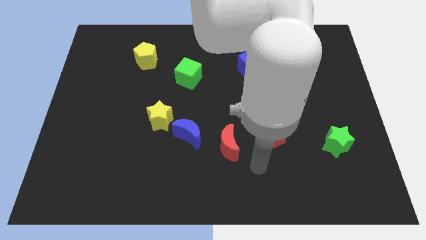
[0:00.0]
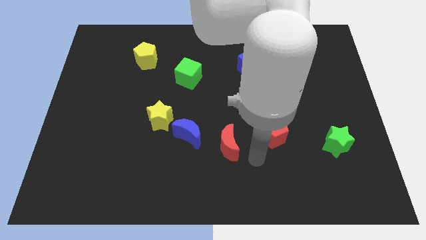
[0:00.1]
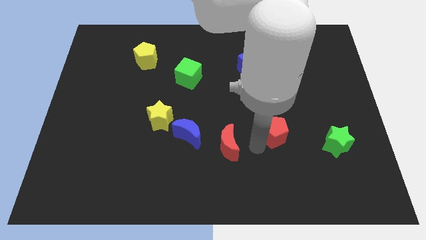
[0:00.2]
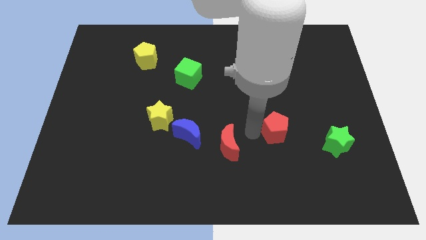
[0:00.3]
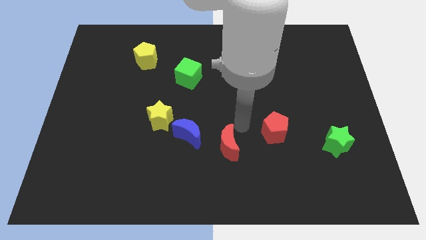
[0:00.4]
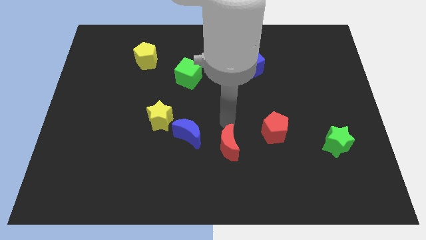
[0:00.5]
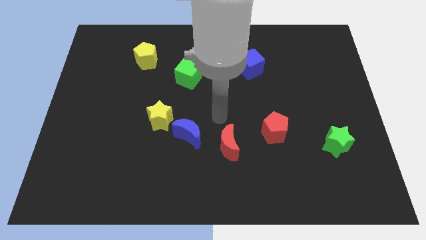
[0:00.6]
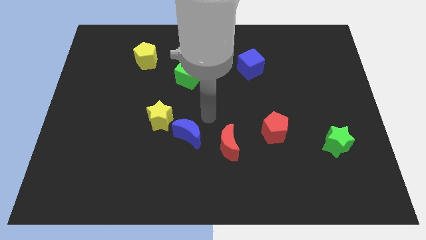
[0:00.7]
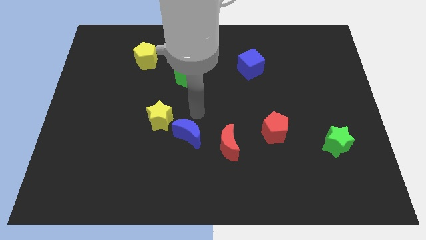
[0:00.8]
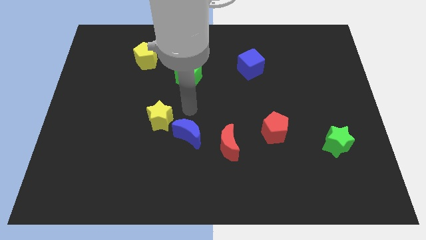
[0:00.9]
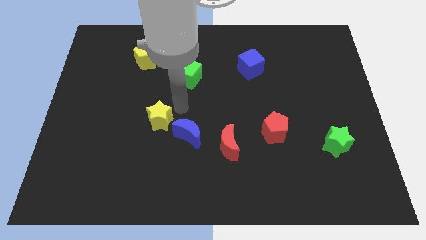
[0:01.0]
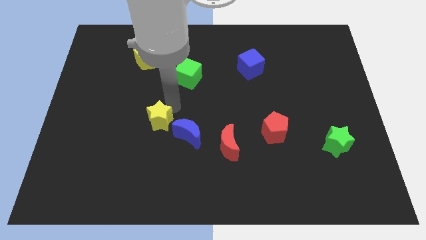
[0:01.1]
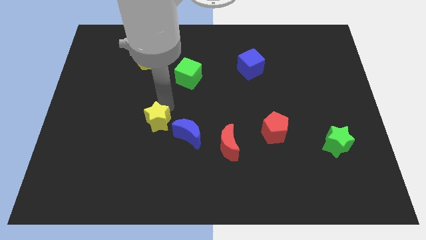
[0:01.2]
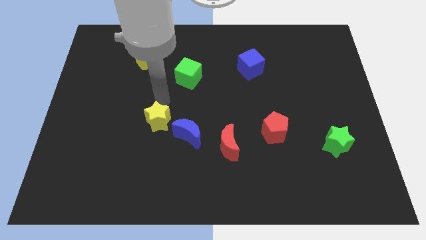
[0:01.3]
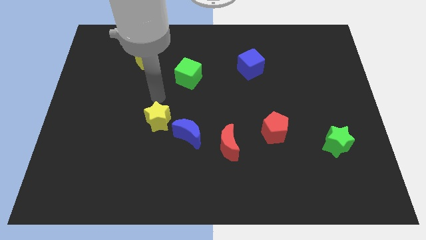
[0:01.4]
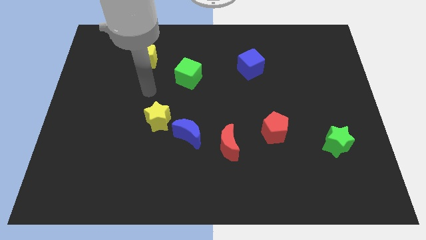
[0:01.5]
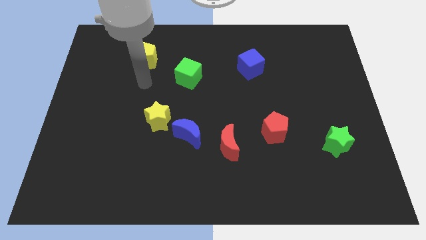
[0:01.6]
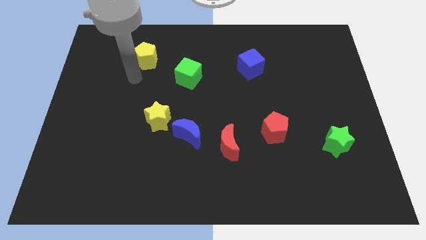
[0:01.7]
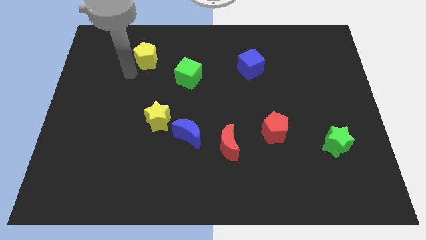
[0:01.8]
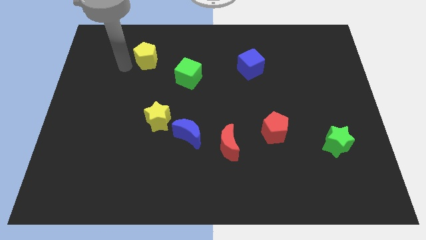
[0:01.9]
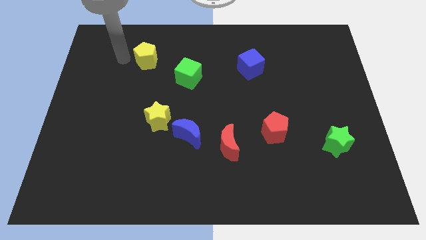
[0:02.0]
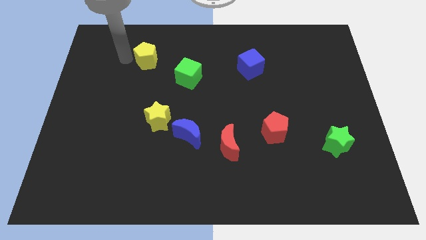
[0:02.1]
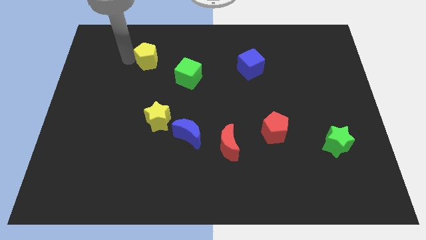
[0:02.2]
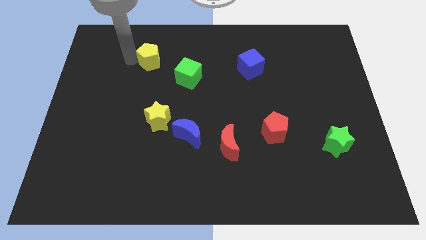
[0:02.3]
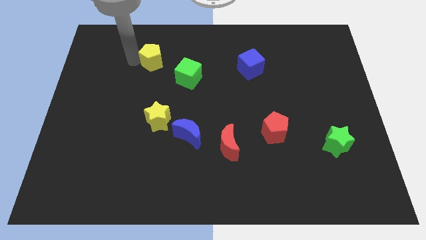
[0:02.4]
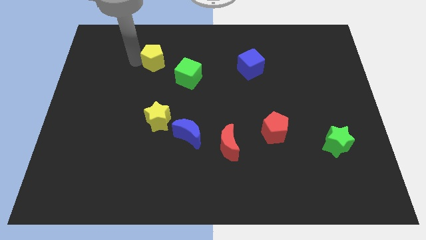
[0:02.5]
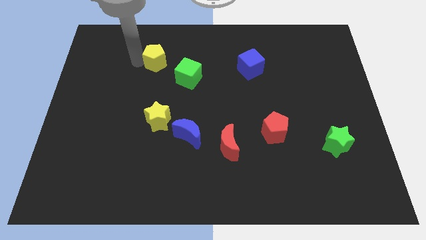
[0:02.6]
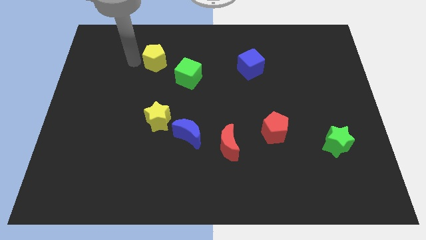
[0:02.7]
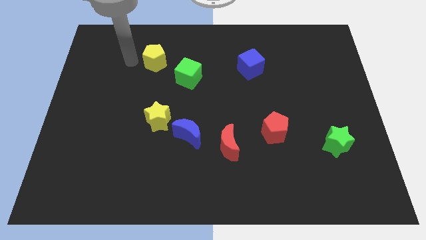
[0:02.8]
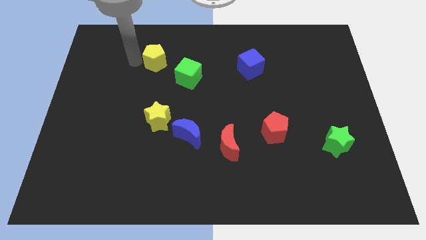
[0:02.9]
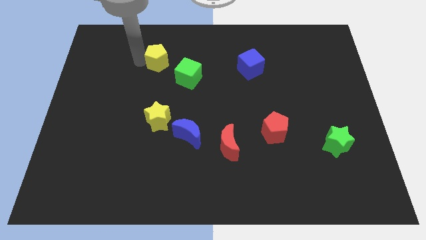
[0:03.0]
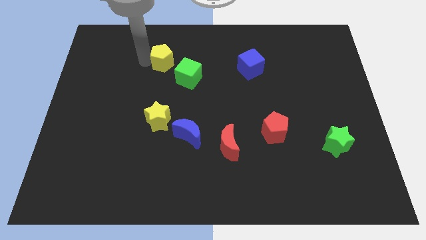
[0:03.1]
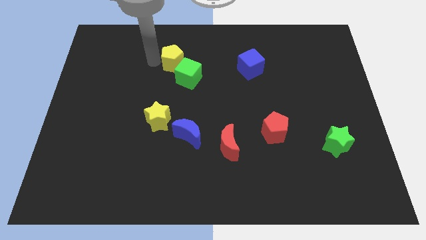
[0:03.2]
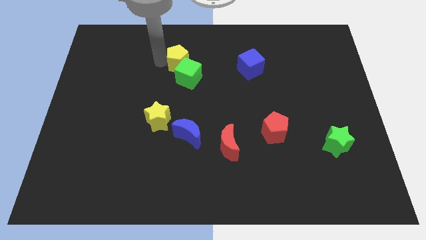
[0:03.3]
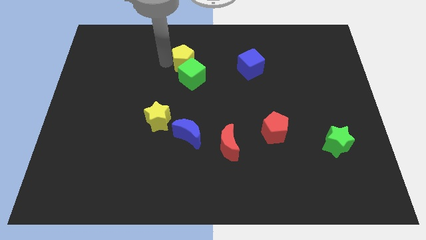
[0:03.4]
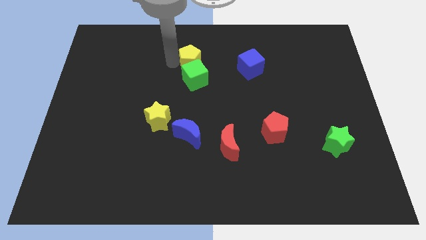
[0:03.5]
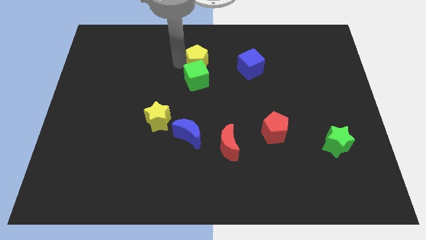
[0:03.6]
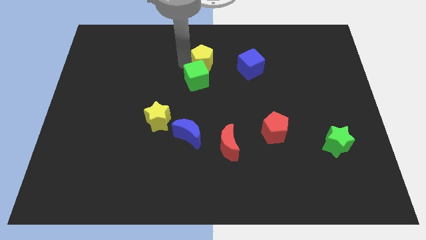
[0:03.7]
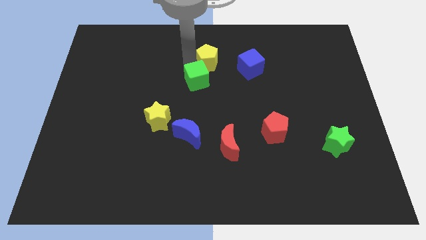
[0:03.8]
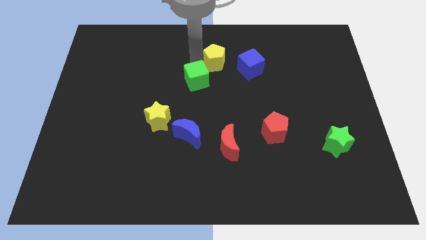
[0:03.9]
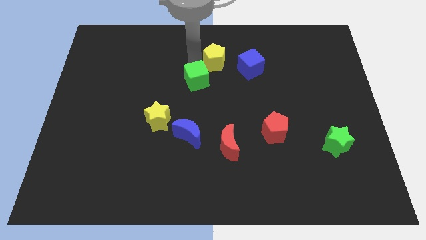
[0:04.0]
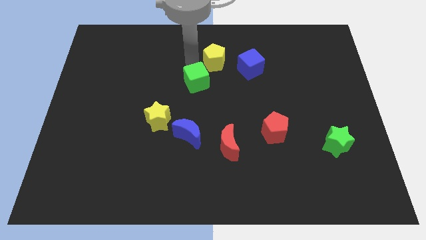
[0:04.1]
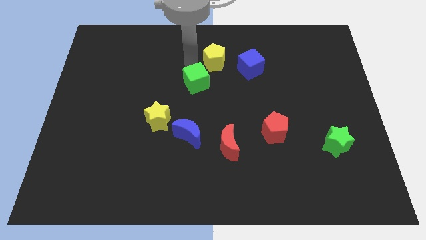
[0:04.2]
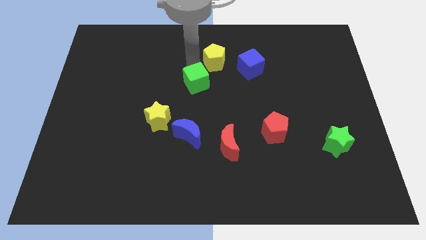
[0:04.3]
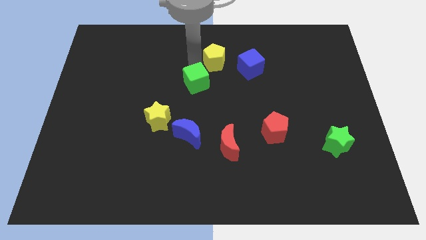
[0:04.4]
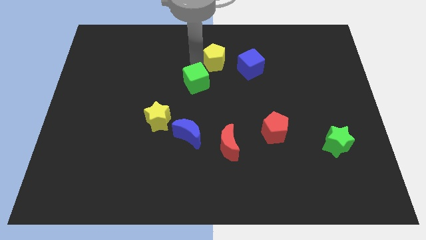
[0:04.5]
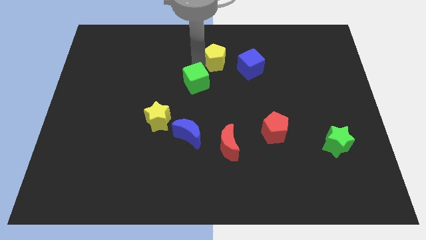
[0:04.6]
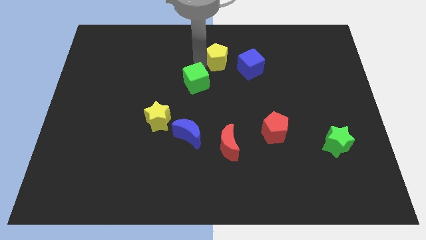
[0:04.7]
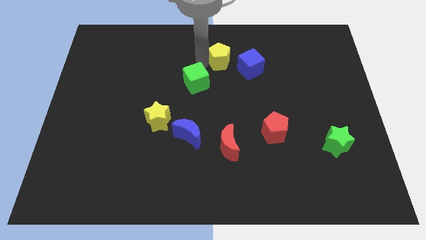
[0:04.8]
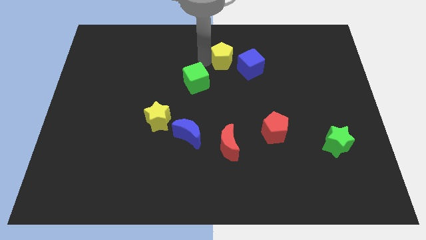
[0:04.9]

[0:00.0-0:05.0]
push the yellow pentagon right

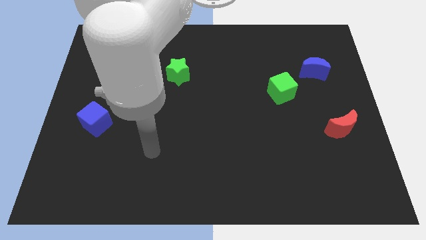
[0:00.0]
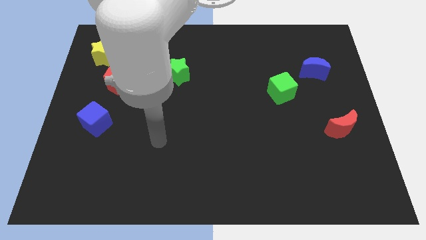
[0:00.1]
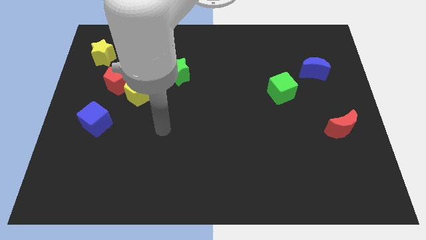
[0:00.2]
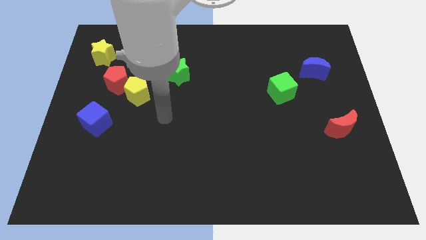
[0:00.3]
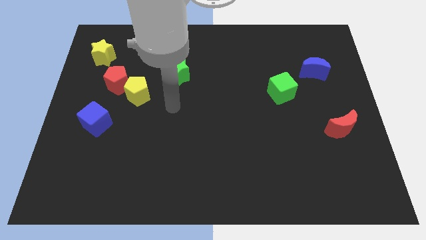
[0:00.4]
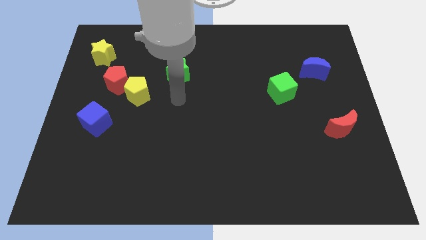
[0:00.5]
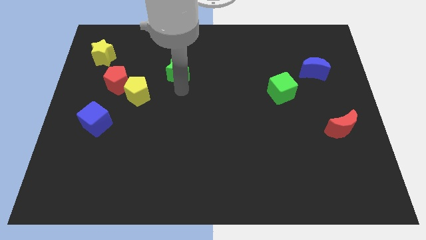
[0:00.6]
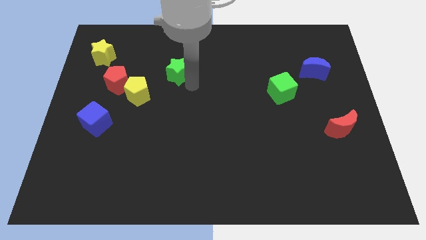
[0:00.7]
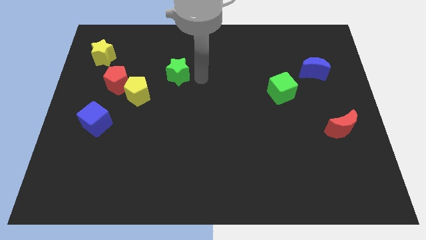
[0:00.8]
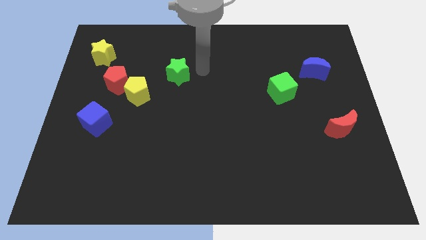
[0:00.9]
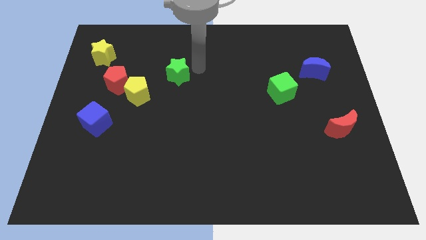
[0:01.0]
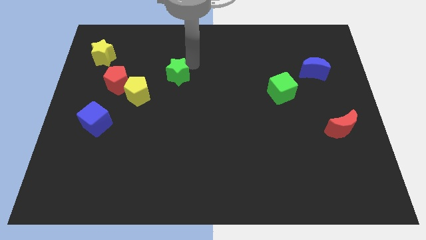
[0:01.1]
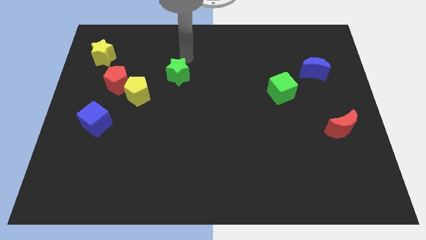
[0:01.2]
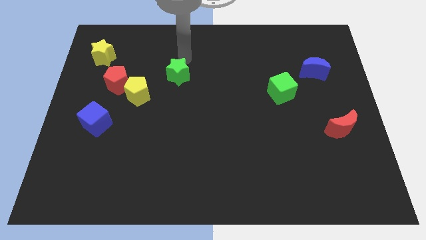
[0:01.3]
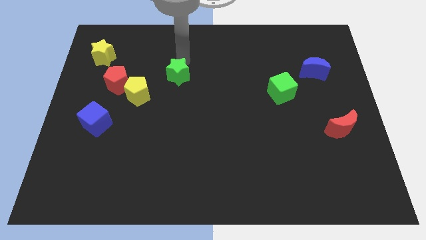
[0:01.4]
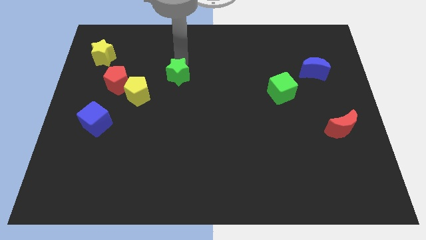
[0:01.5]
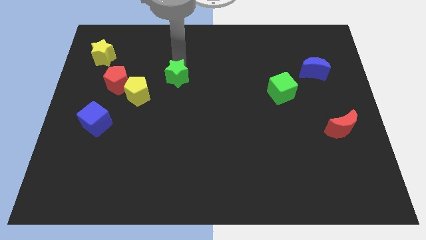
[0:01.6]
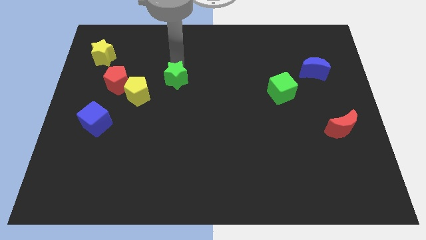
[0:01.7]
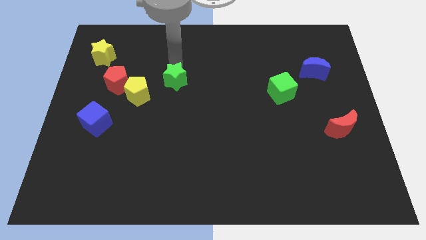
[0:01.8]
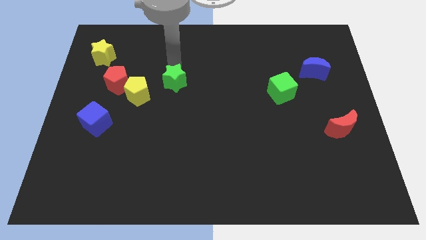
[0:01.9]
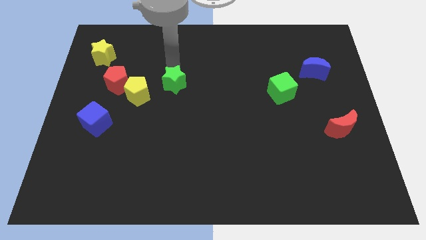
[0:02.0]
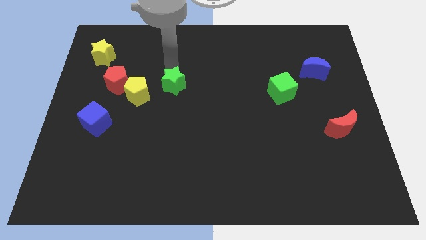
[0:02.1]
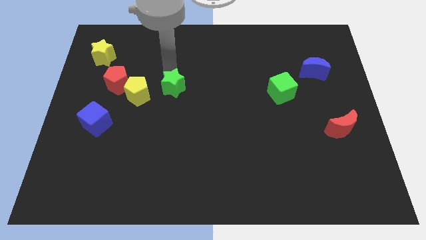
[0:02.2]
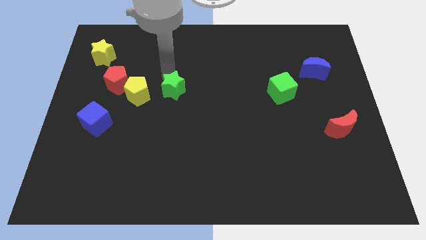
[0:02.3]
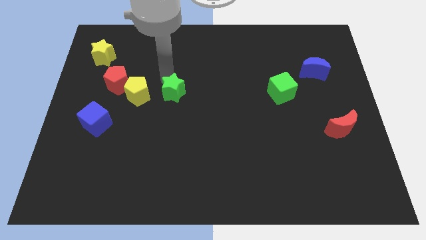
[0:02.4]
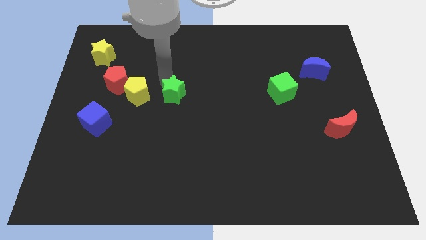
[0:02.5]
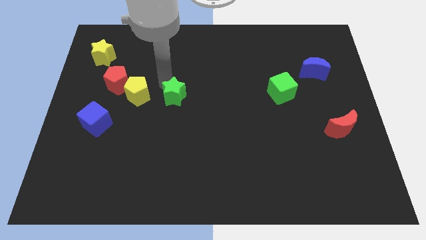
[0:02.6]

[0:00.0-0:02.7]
push the green star down a bit
